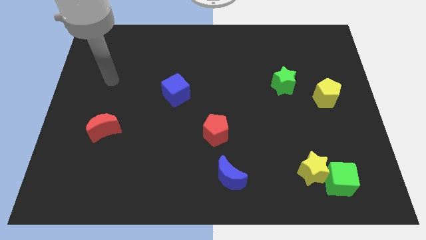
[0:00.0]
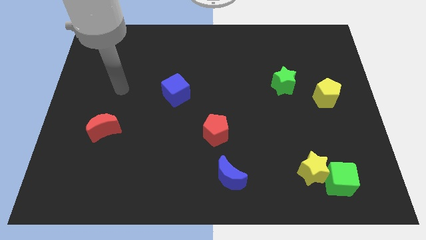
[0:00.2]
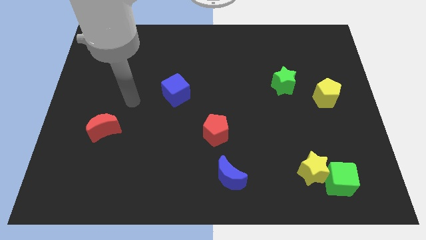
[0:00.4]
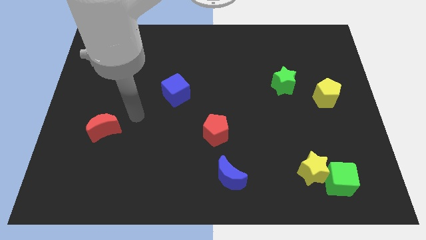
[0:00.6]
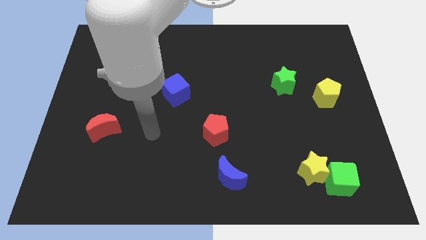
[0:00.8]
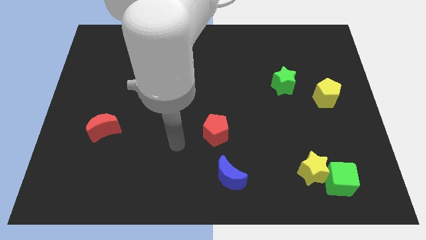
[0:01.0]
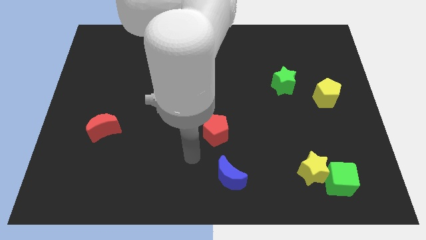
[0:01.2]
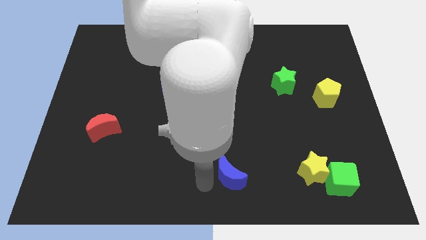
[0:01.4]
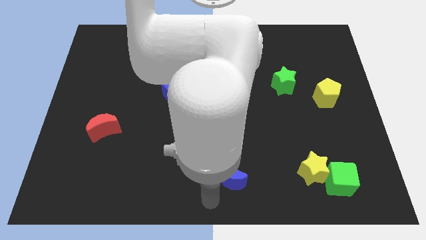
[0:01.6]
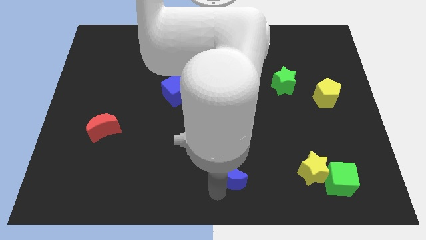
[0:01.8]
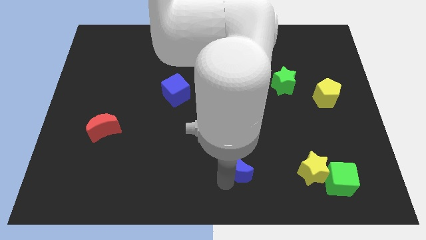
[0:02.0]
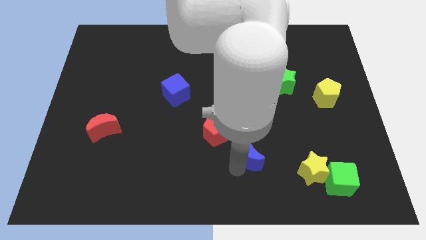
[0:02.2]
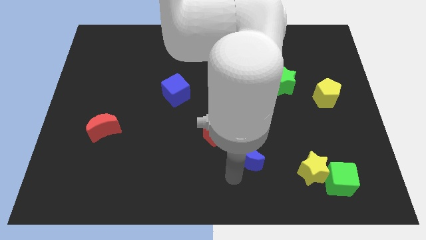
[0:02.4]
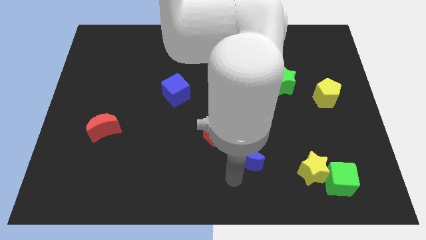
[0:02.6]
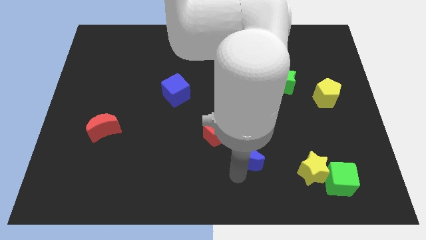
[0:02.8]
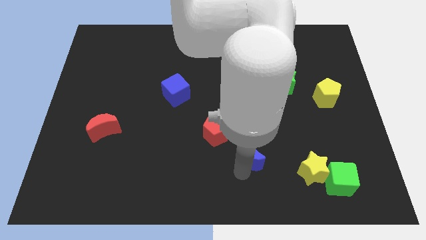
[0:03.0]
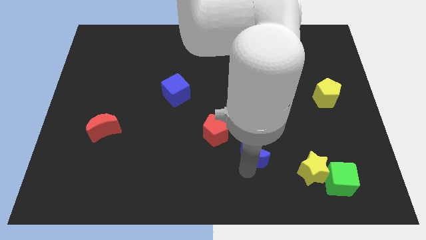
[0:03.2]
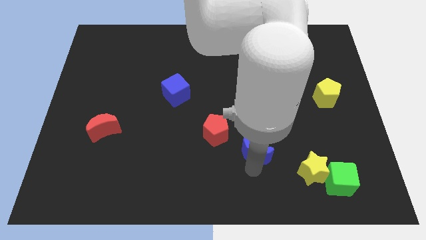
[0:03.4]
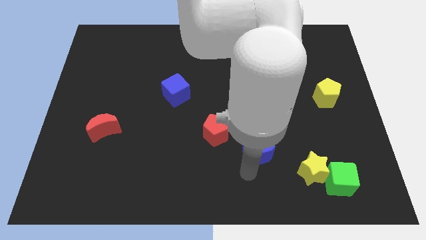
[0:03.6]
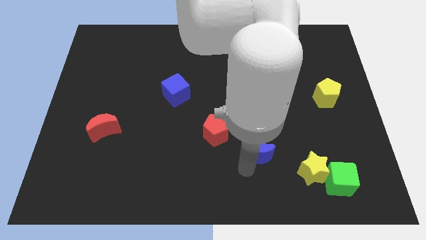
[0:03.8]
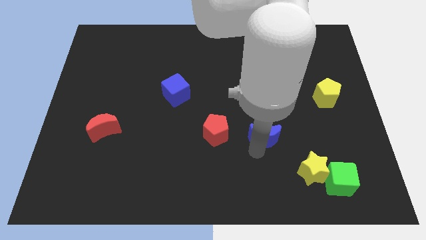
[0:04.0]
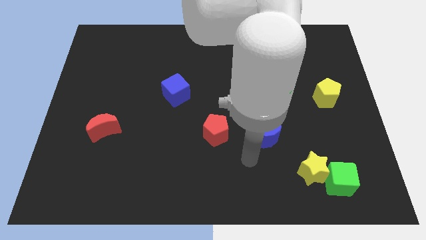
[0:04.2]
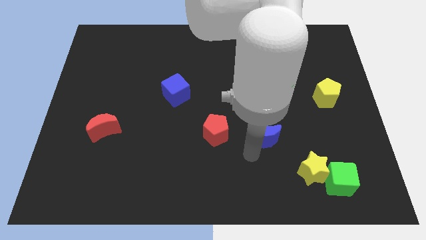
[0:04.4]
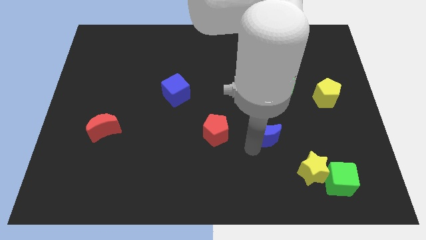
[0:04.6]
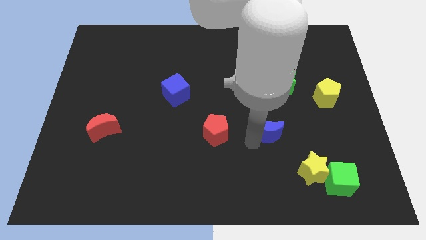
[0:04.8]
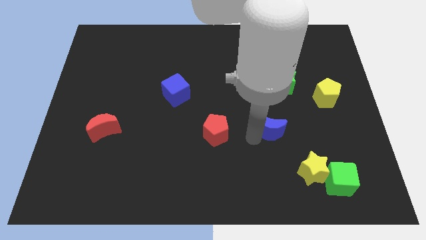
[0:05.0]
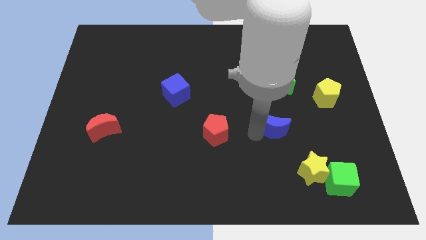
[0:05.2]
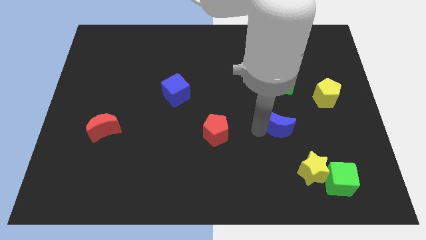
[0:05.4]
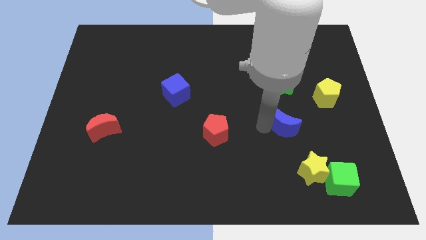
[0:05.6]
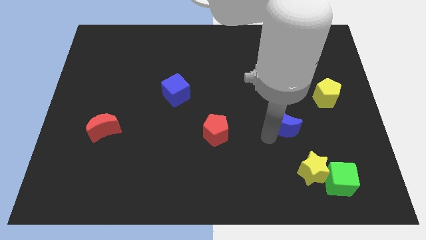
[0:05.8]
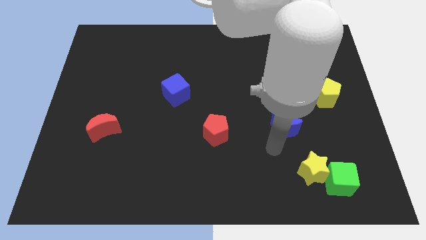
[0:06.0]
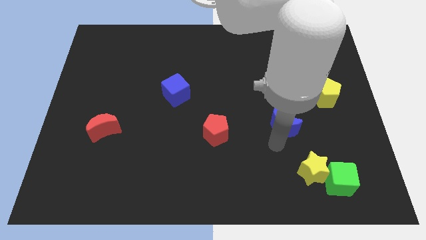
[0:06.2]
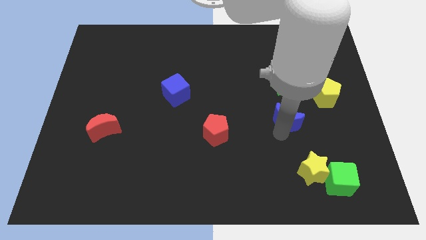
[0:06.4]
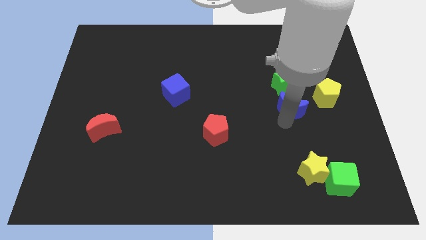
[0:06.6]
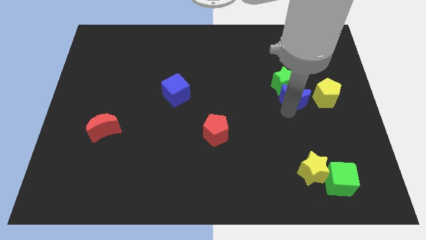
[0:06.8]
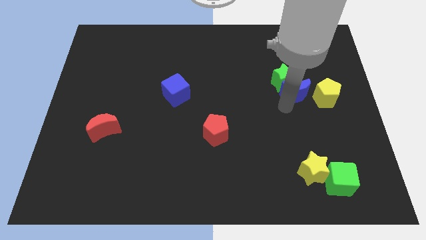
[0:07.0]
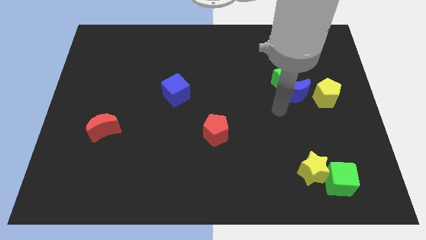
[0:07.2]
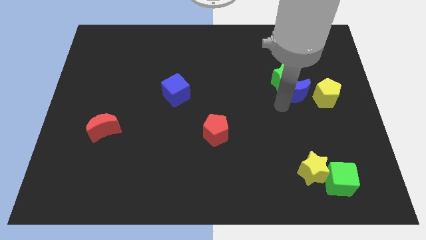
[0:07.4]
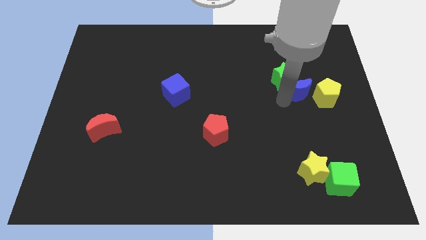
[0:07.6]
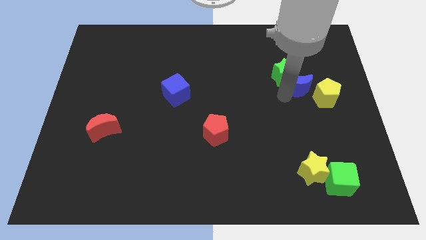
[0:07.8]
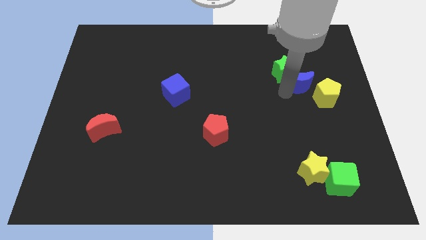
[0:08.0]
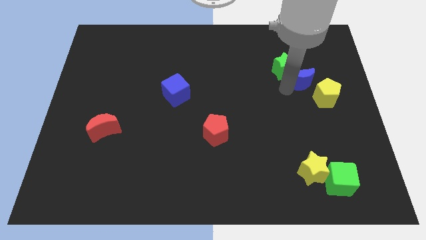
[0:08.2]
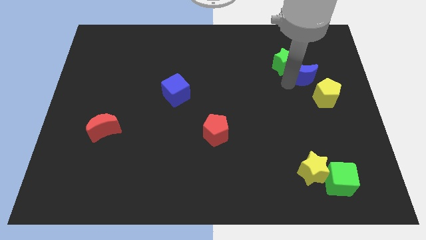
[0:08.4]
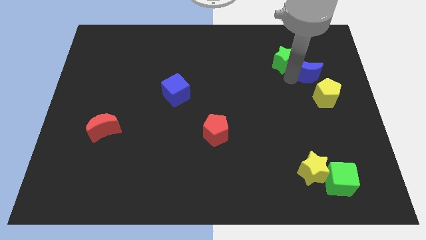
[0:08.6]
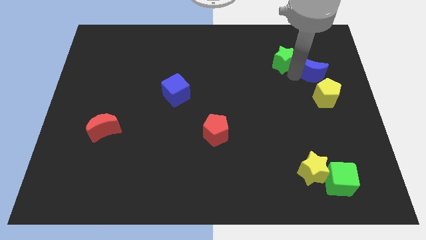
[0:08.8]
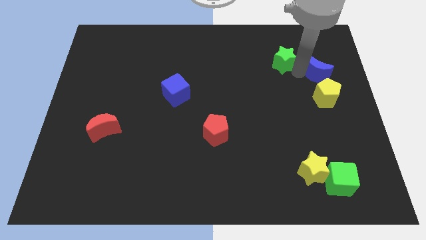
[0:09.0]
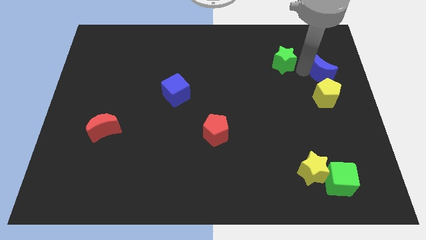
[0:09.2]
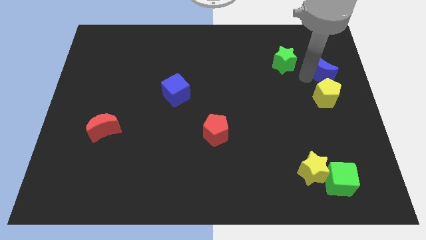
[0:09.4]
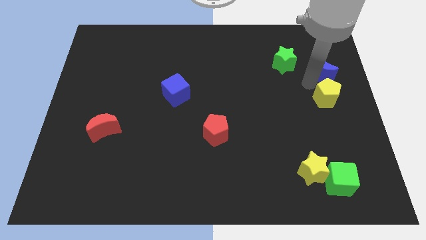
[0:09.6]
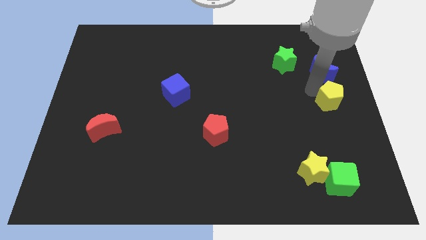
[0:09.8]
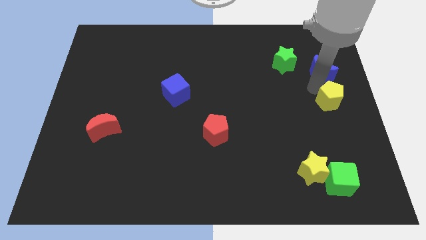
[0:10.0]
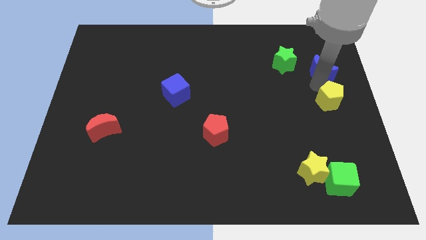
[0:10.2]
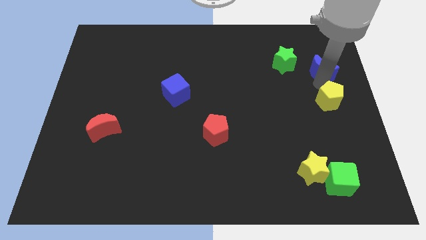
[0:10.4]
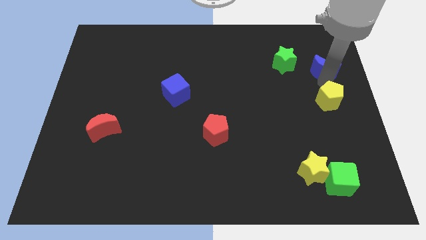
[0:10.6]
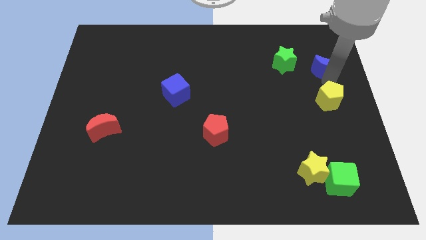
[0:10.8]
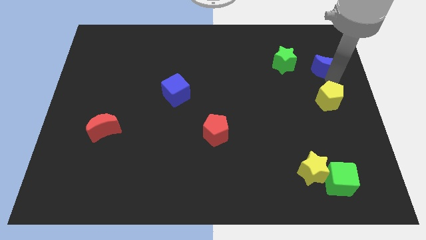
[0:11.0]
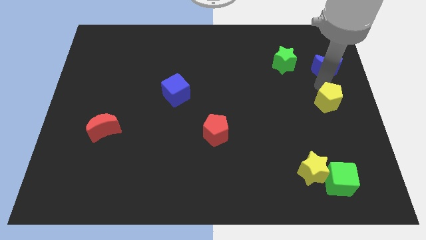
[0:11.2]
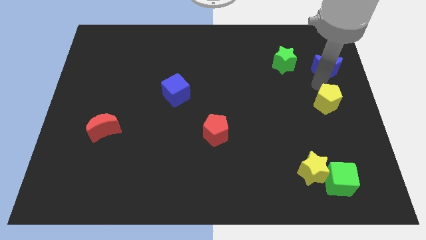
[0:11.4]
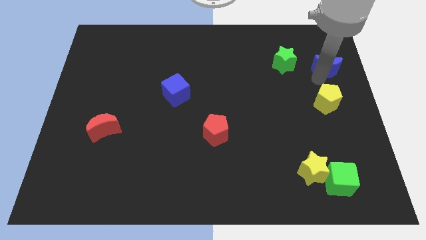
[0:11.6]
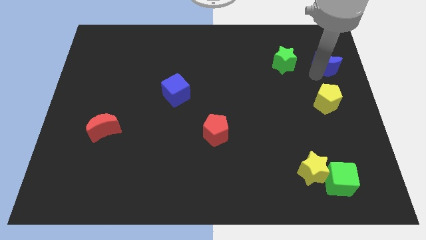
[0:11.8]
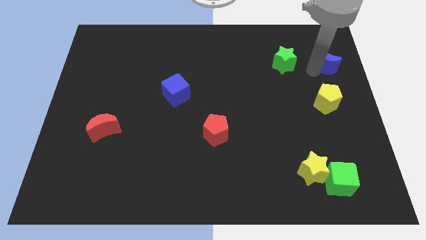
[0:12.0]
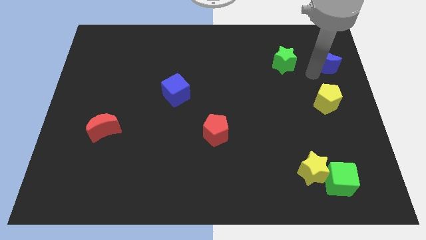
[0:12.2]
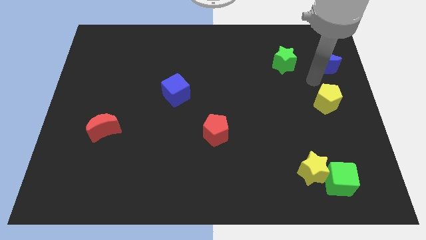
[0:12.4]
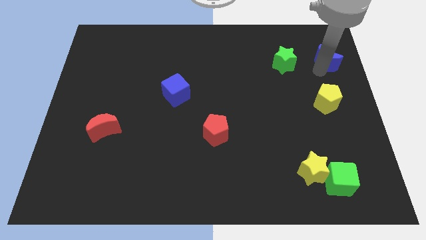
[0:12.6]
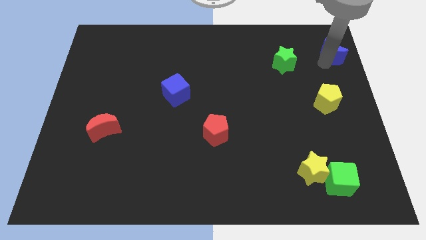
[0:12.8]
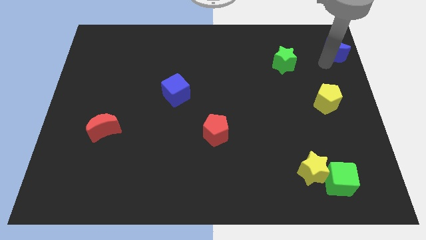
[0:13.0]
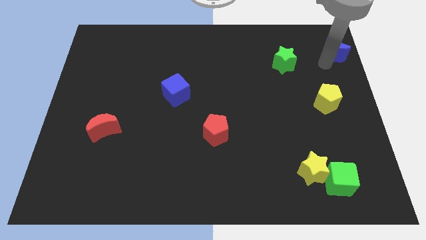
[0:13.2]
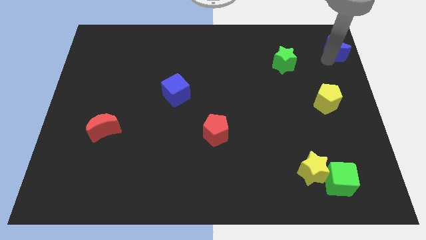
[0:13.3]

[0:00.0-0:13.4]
move the blue moon to the top right
